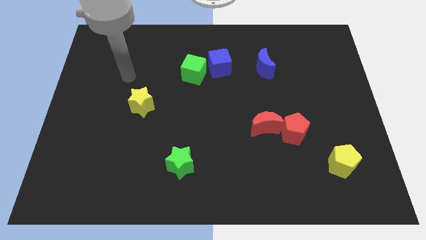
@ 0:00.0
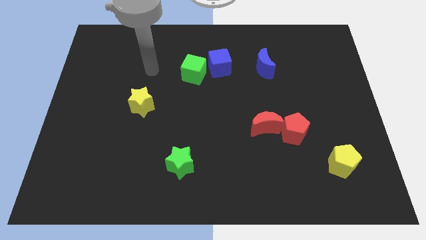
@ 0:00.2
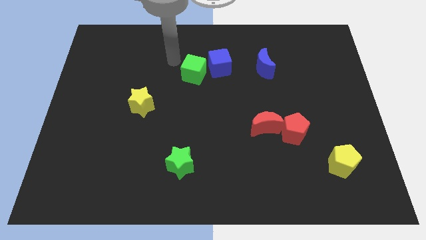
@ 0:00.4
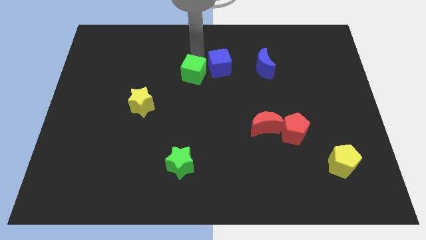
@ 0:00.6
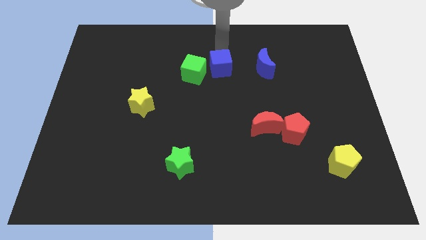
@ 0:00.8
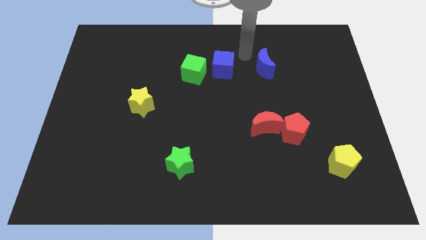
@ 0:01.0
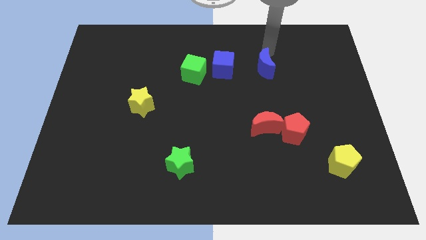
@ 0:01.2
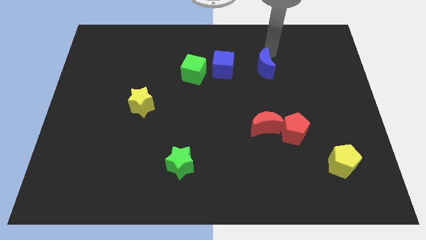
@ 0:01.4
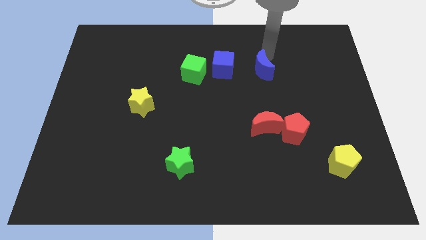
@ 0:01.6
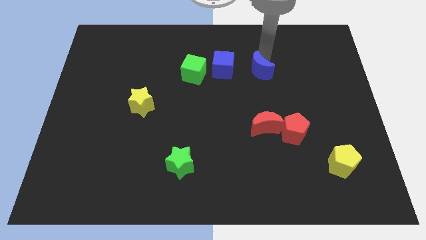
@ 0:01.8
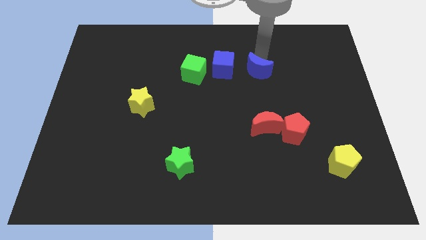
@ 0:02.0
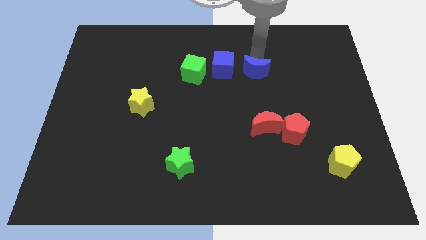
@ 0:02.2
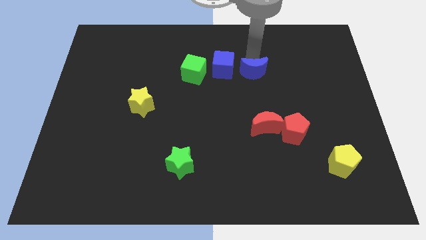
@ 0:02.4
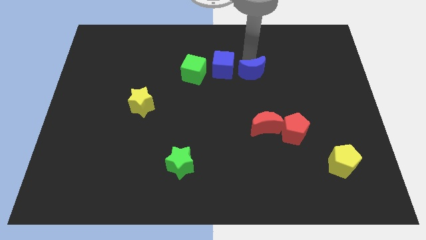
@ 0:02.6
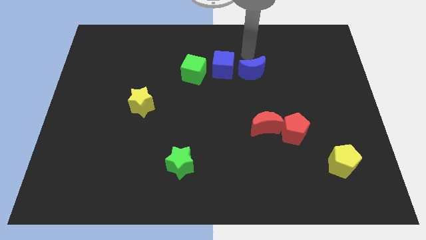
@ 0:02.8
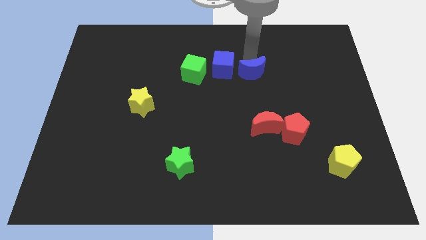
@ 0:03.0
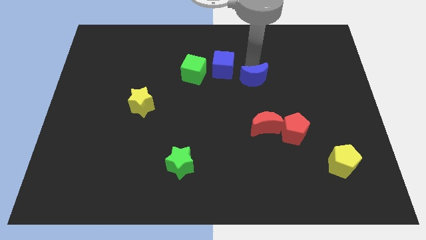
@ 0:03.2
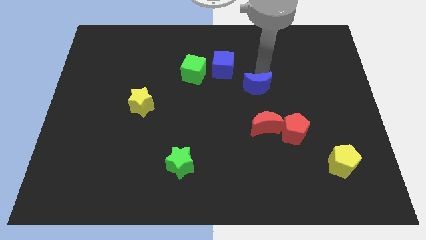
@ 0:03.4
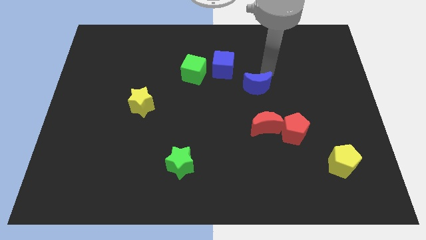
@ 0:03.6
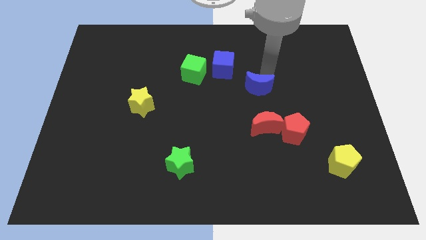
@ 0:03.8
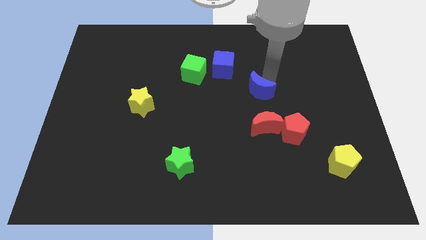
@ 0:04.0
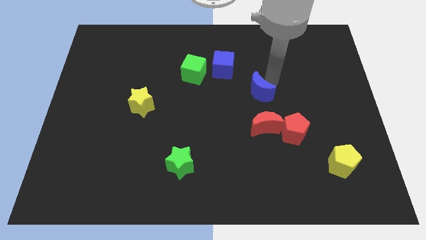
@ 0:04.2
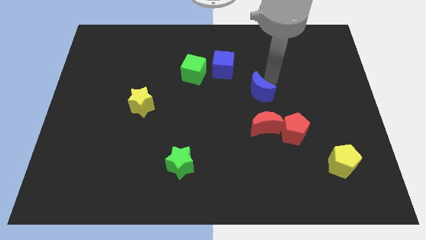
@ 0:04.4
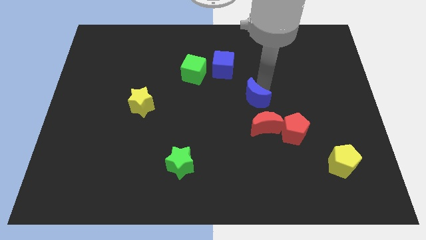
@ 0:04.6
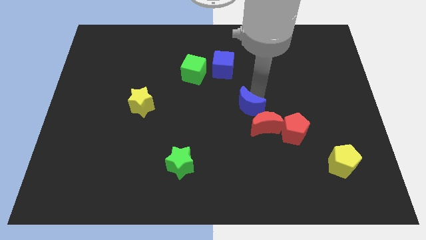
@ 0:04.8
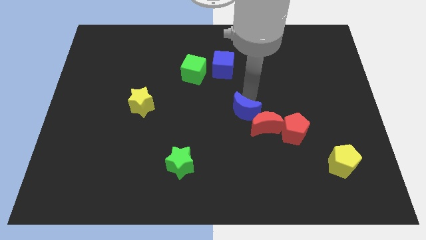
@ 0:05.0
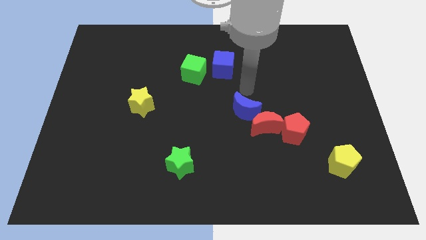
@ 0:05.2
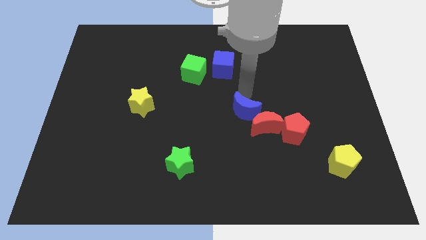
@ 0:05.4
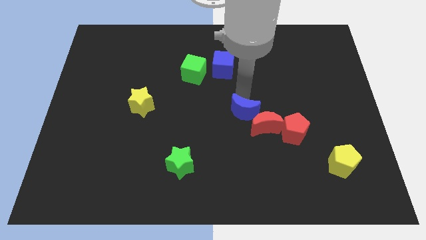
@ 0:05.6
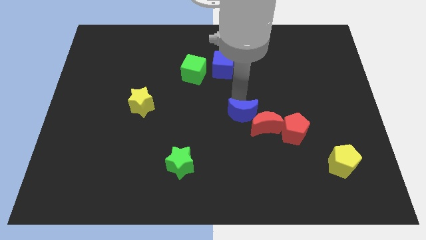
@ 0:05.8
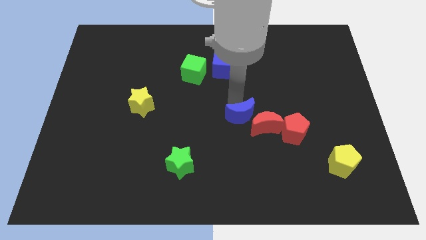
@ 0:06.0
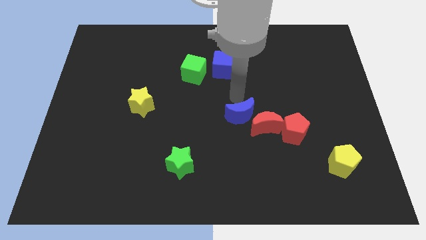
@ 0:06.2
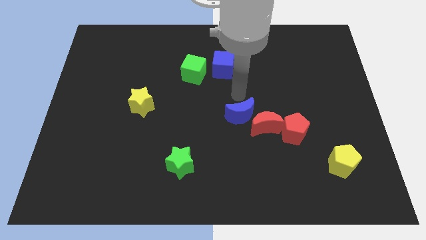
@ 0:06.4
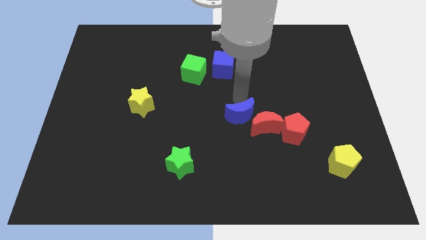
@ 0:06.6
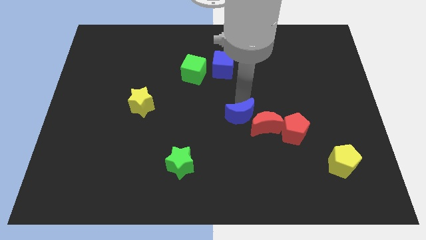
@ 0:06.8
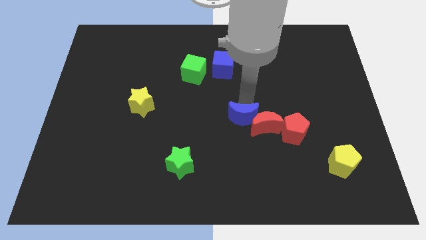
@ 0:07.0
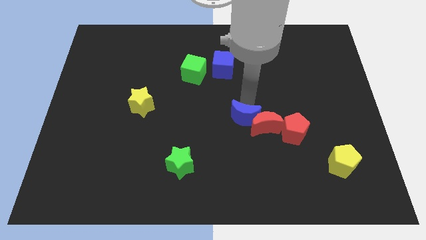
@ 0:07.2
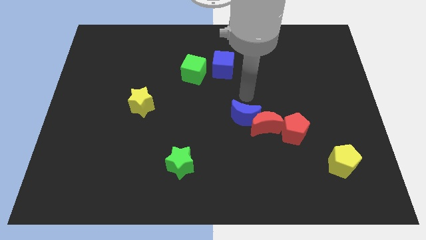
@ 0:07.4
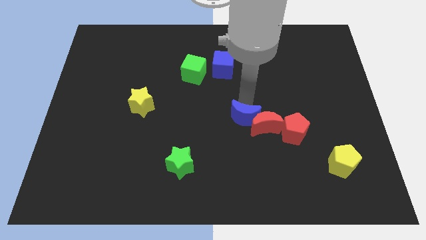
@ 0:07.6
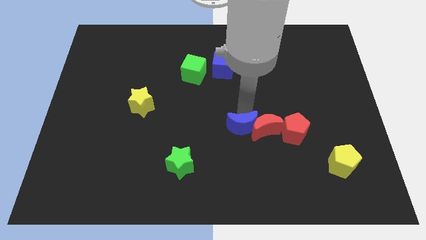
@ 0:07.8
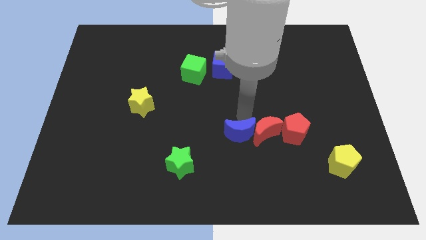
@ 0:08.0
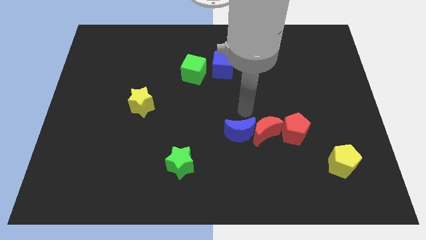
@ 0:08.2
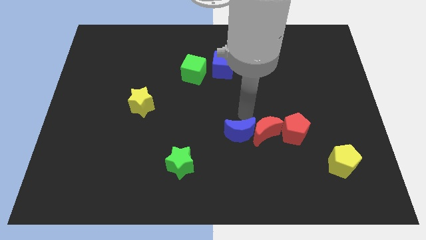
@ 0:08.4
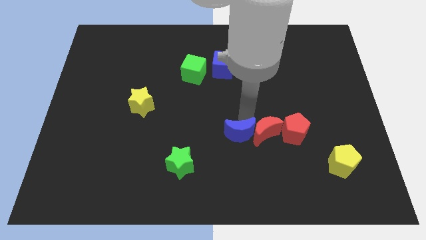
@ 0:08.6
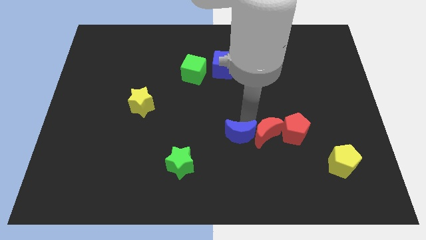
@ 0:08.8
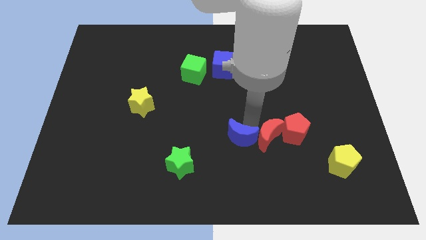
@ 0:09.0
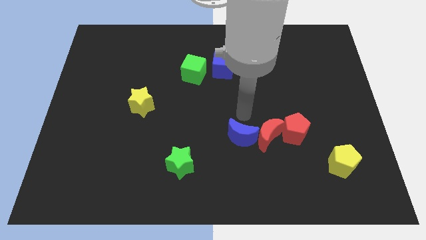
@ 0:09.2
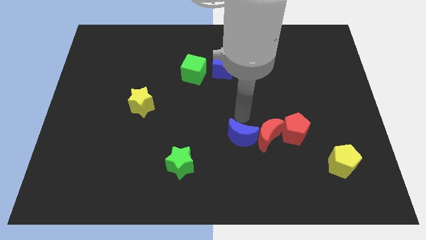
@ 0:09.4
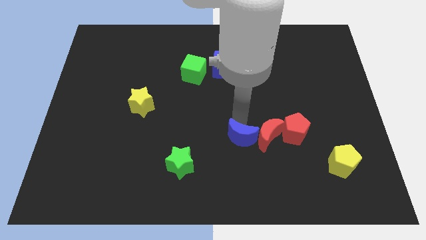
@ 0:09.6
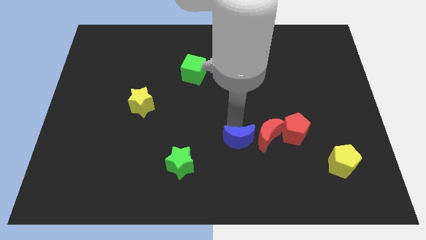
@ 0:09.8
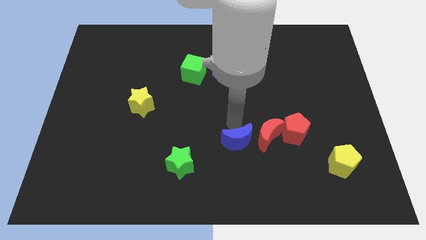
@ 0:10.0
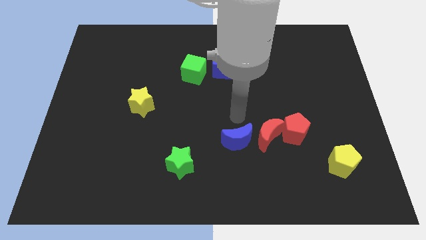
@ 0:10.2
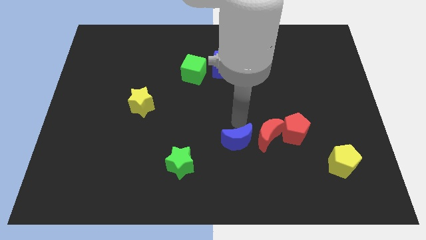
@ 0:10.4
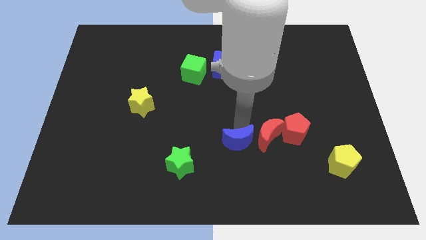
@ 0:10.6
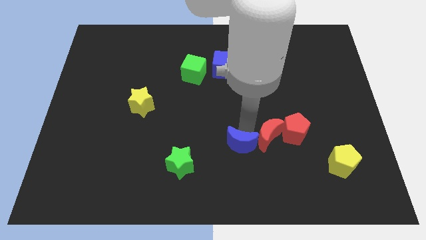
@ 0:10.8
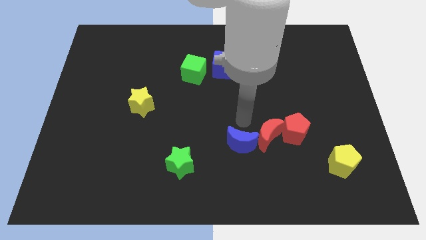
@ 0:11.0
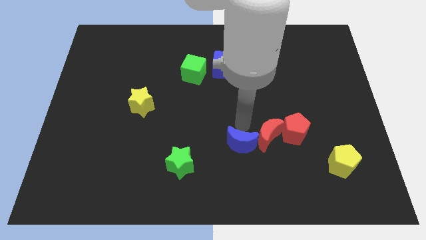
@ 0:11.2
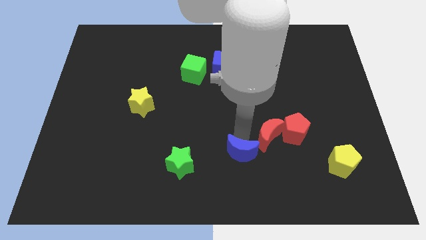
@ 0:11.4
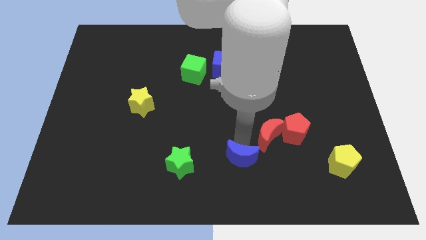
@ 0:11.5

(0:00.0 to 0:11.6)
slide the blue moon to the bottom side

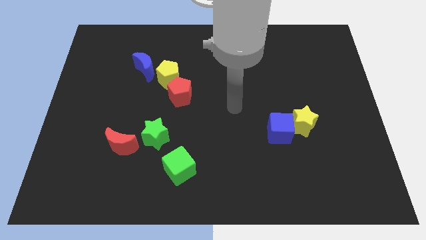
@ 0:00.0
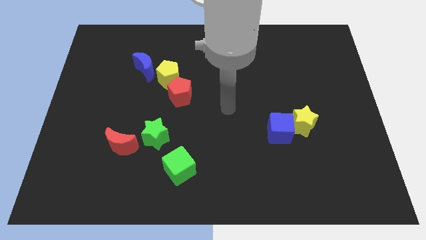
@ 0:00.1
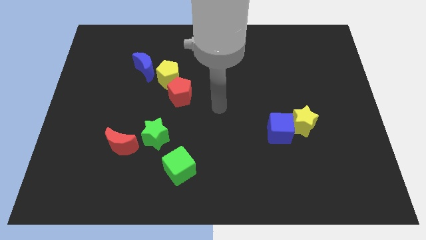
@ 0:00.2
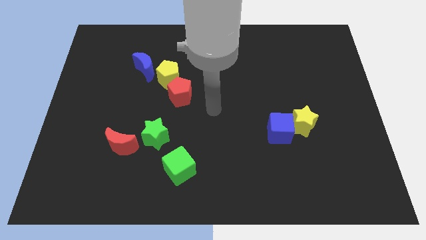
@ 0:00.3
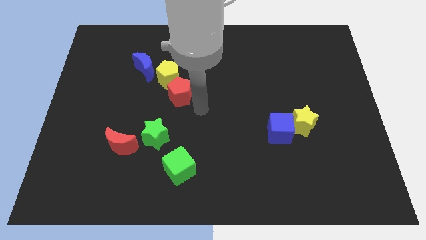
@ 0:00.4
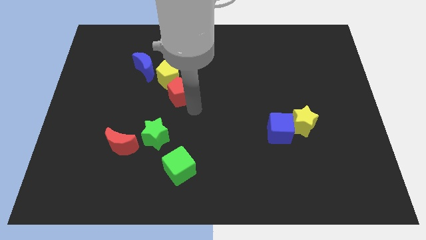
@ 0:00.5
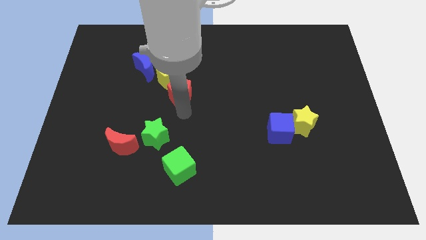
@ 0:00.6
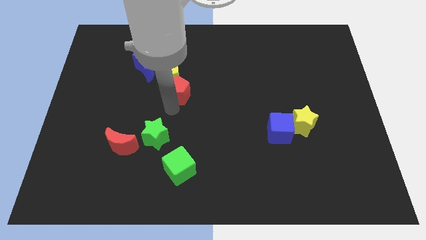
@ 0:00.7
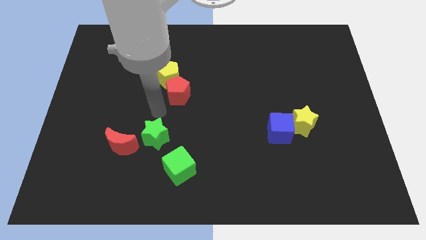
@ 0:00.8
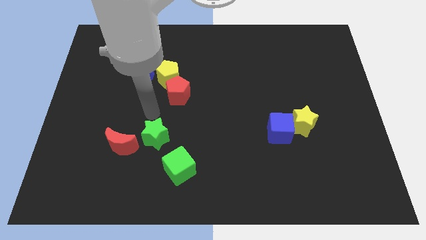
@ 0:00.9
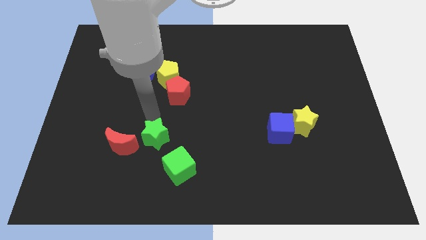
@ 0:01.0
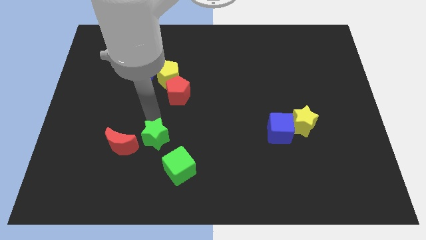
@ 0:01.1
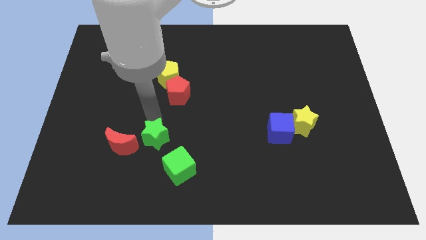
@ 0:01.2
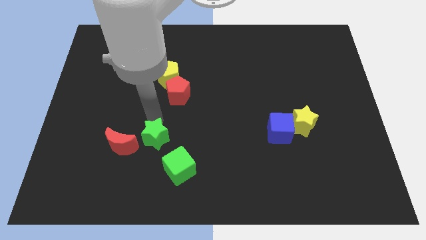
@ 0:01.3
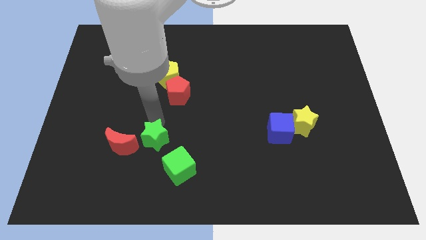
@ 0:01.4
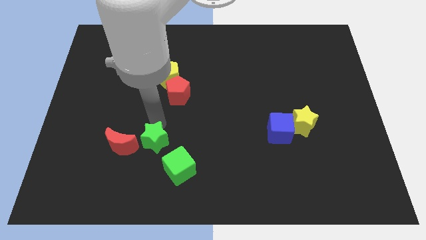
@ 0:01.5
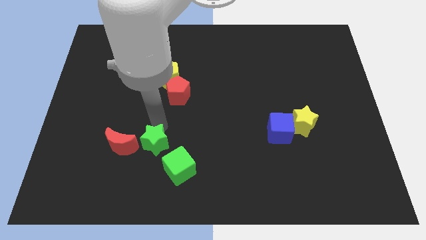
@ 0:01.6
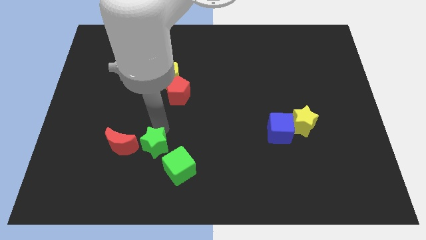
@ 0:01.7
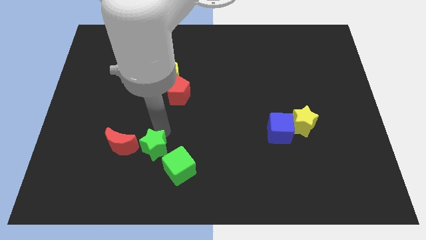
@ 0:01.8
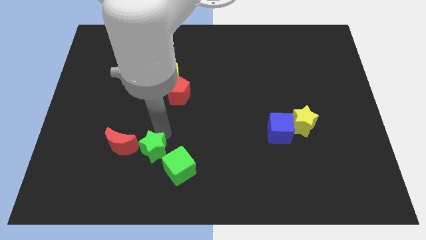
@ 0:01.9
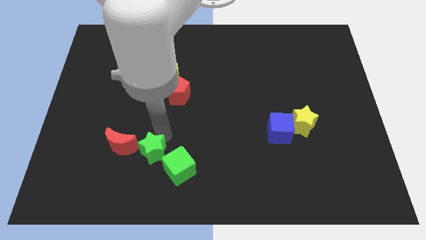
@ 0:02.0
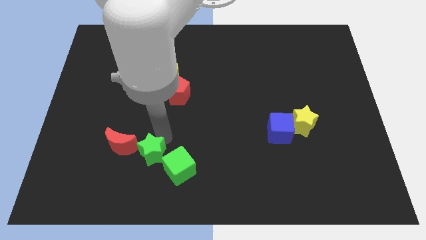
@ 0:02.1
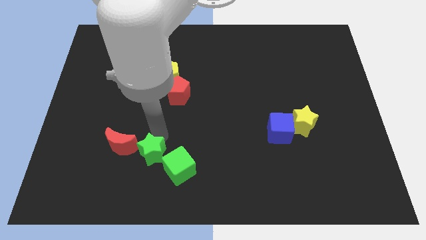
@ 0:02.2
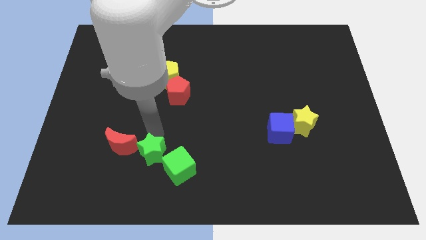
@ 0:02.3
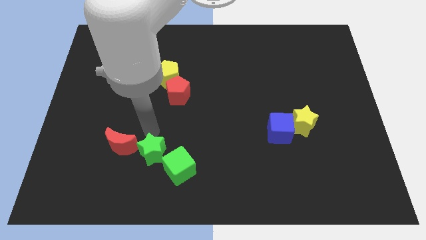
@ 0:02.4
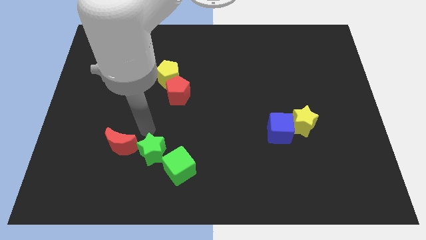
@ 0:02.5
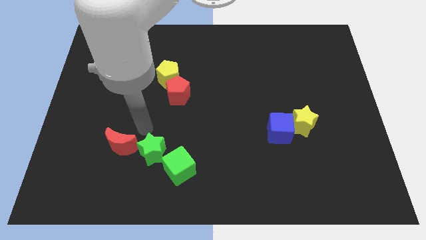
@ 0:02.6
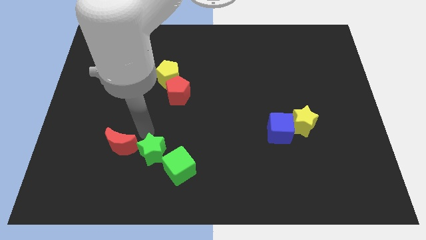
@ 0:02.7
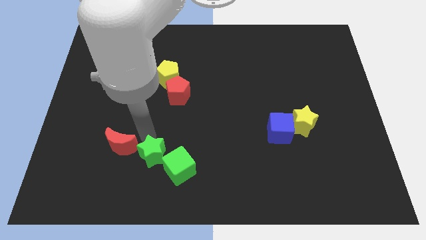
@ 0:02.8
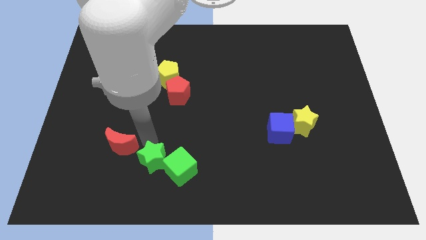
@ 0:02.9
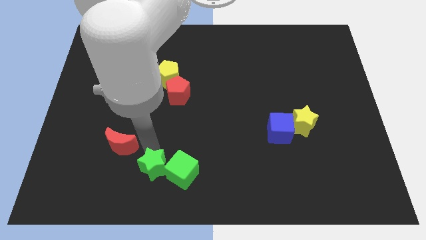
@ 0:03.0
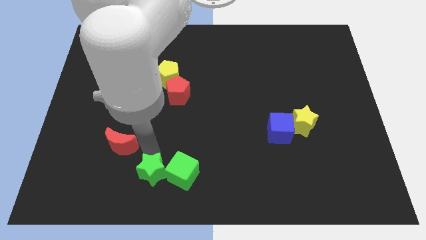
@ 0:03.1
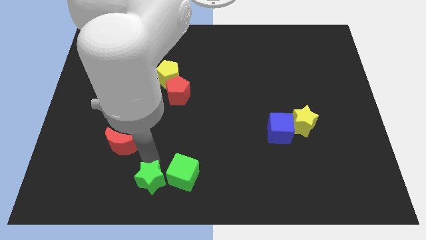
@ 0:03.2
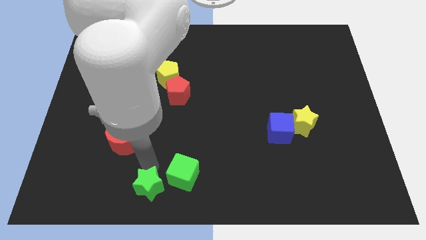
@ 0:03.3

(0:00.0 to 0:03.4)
slide the green star to the bottom side
